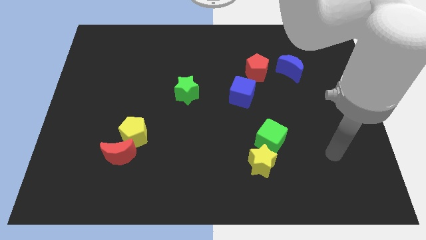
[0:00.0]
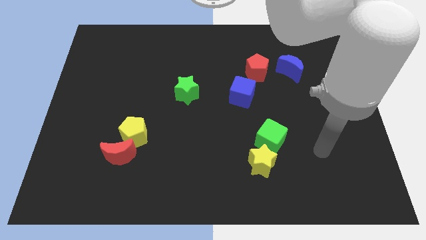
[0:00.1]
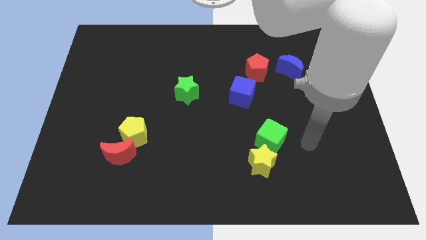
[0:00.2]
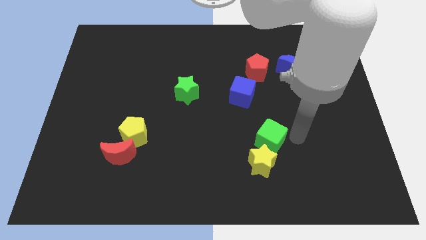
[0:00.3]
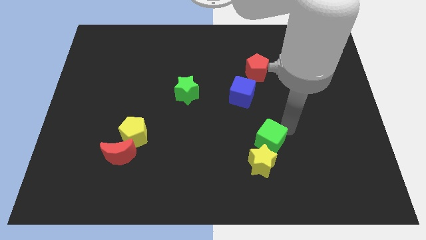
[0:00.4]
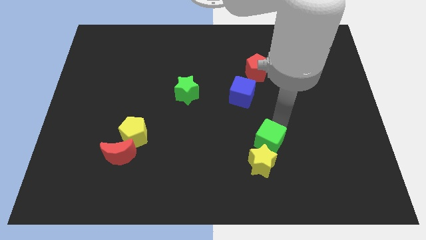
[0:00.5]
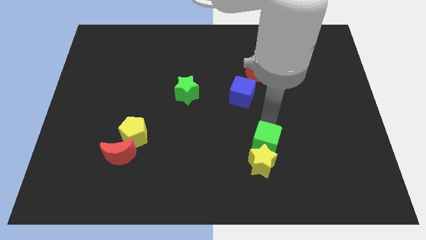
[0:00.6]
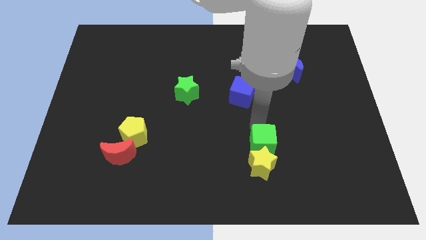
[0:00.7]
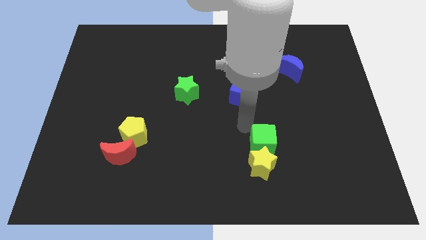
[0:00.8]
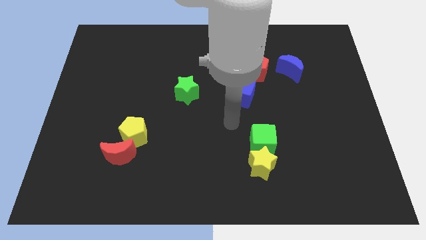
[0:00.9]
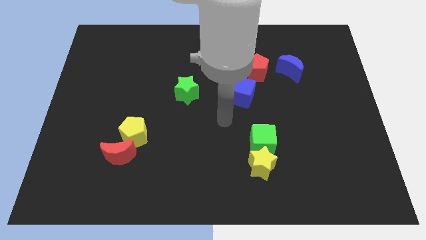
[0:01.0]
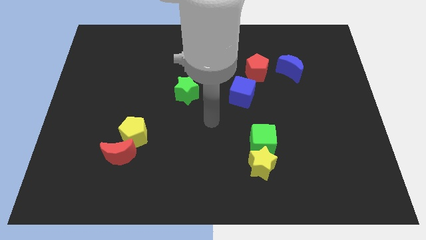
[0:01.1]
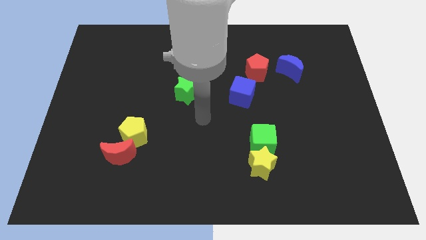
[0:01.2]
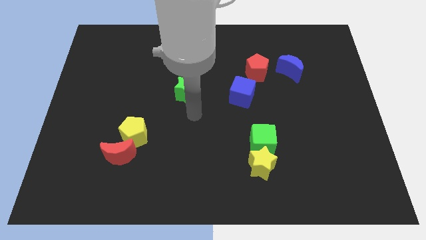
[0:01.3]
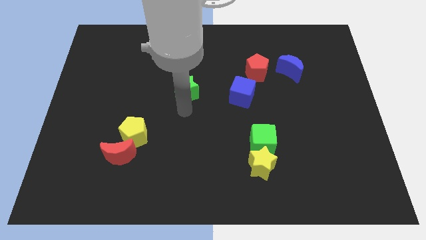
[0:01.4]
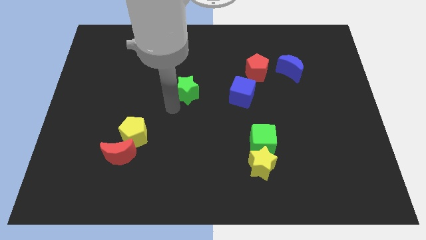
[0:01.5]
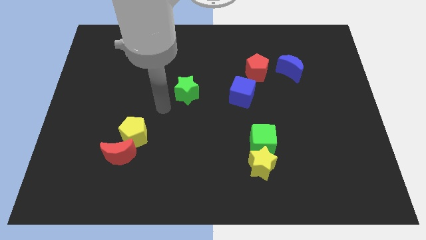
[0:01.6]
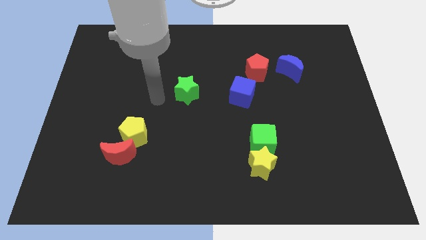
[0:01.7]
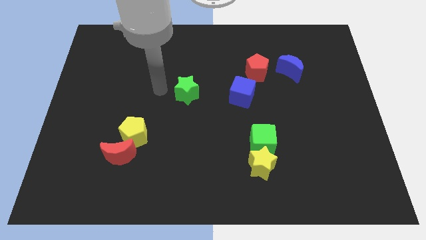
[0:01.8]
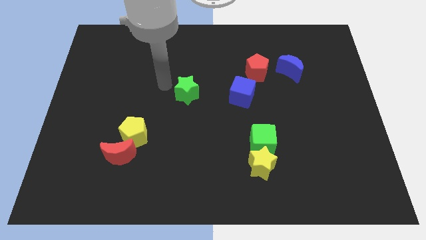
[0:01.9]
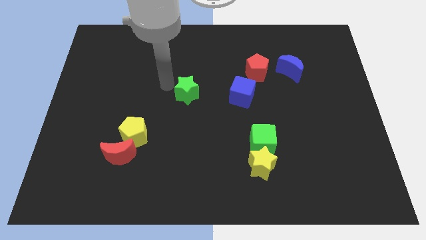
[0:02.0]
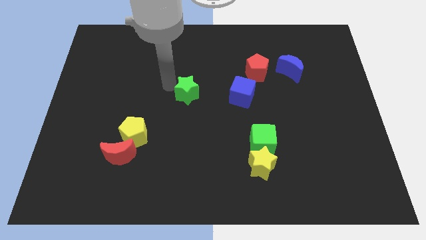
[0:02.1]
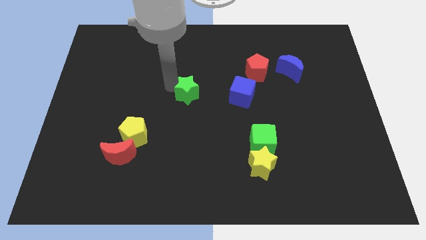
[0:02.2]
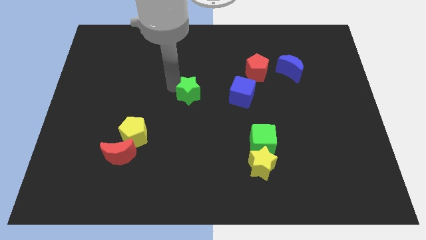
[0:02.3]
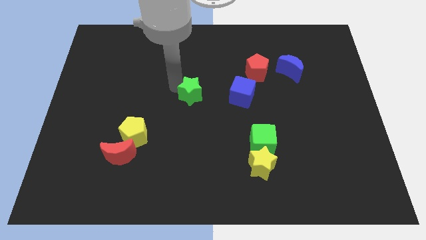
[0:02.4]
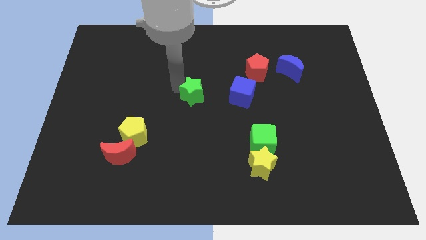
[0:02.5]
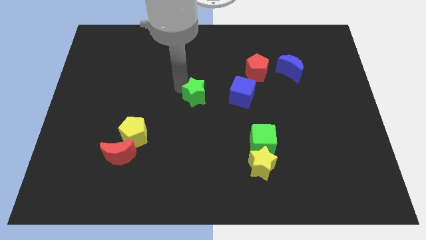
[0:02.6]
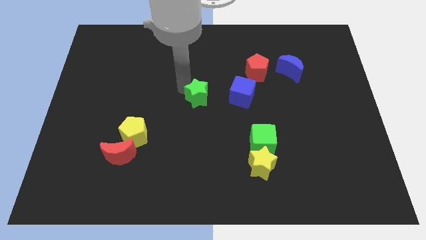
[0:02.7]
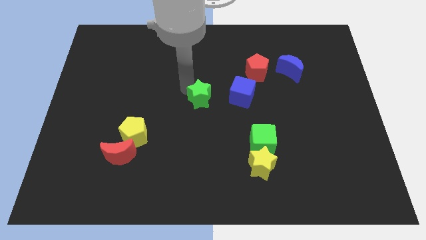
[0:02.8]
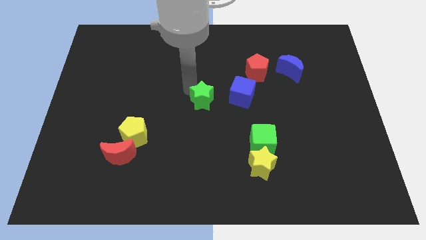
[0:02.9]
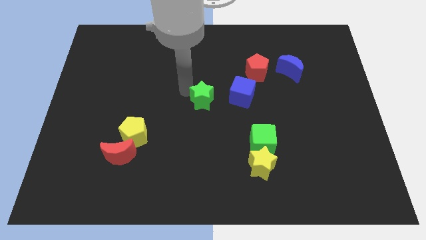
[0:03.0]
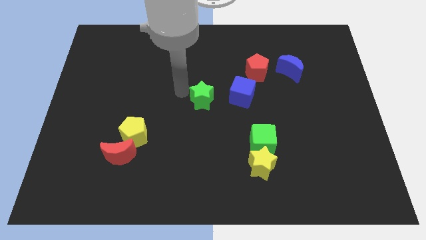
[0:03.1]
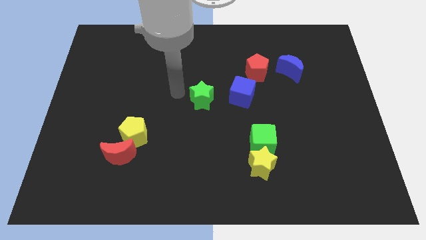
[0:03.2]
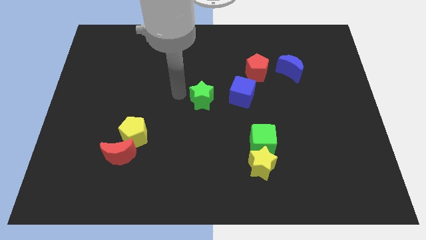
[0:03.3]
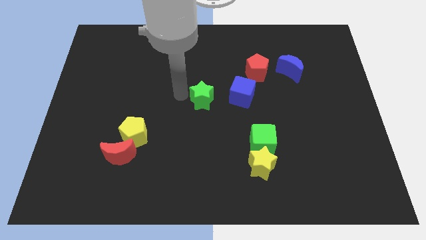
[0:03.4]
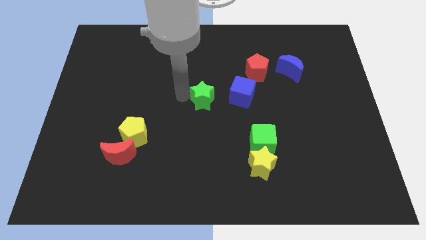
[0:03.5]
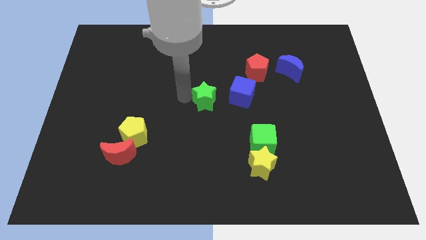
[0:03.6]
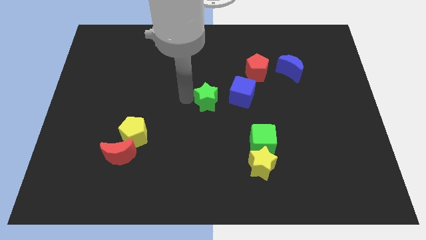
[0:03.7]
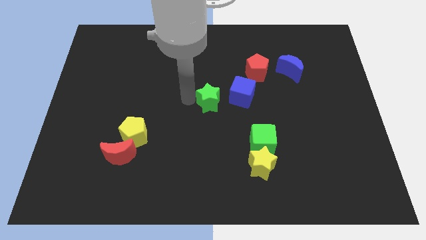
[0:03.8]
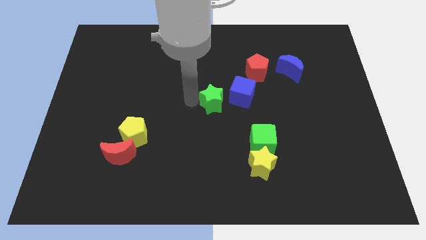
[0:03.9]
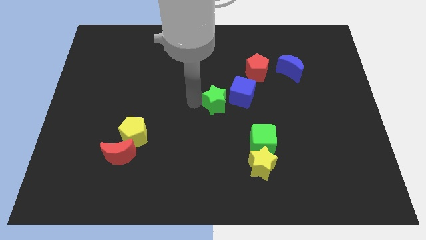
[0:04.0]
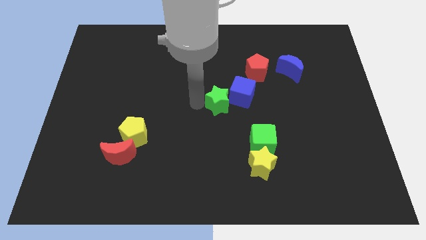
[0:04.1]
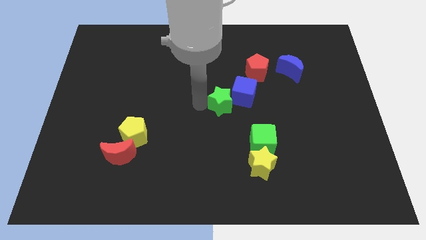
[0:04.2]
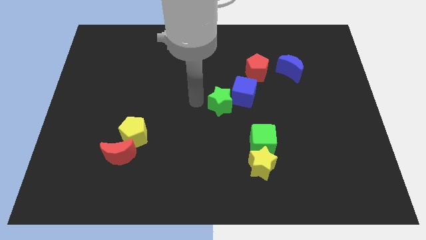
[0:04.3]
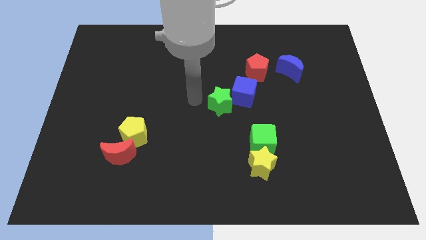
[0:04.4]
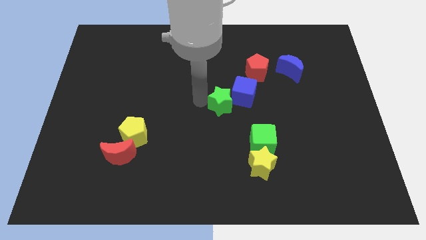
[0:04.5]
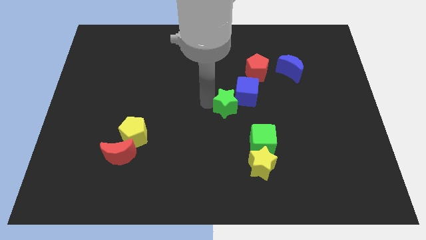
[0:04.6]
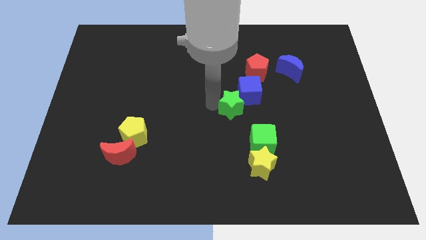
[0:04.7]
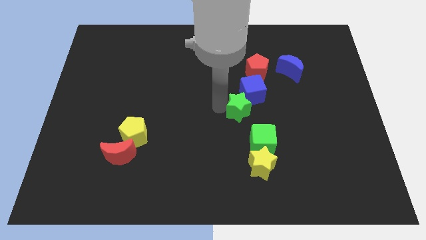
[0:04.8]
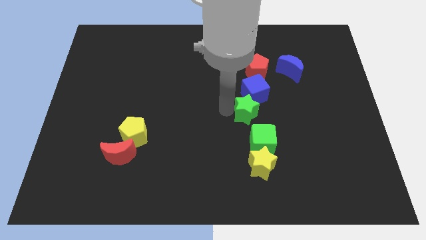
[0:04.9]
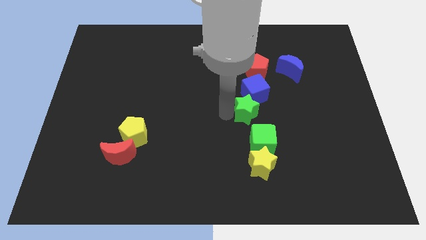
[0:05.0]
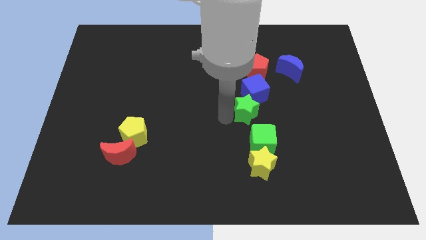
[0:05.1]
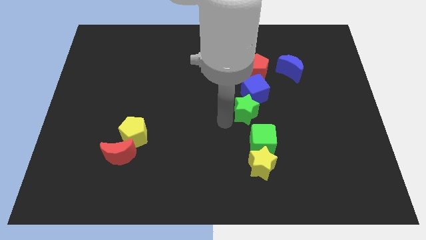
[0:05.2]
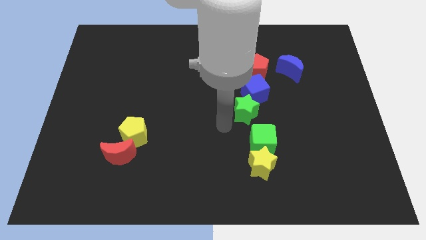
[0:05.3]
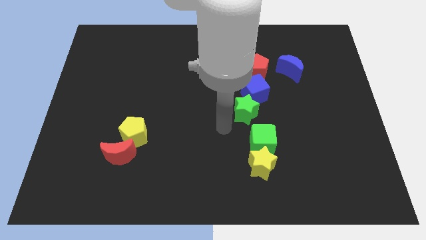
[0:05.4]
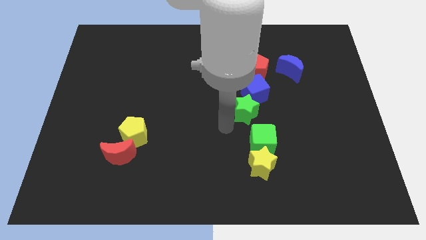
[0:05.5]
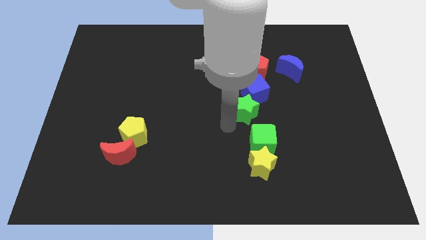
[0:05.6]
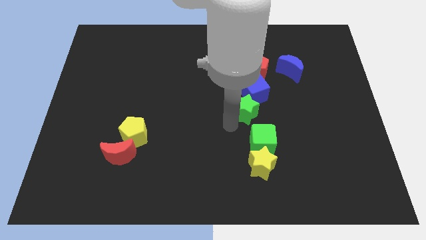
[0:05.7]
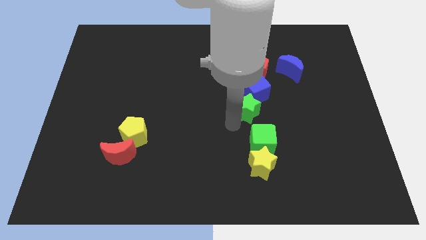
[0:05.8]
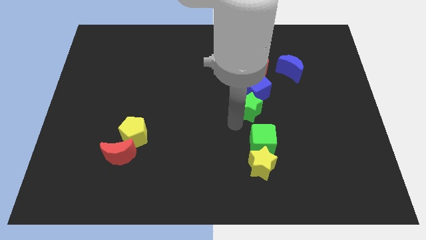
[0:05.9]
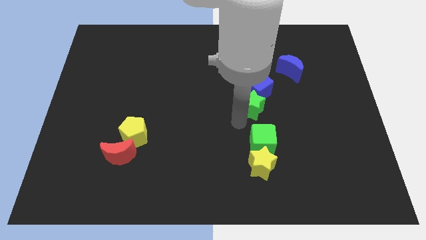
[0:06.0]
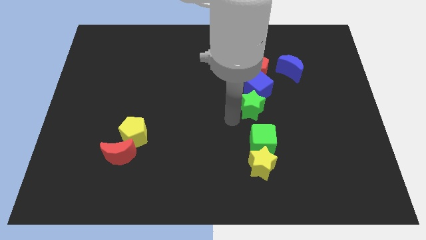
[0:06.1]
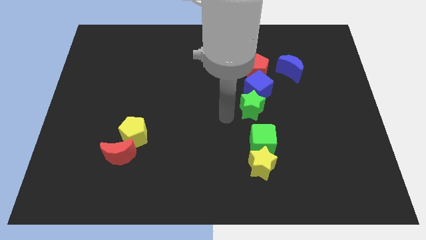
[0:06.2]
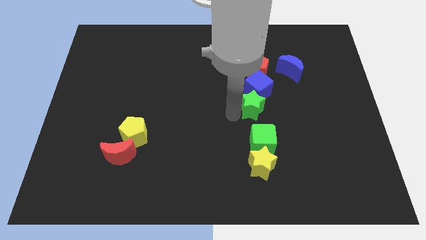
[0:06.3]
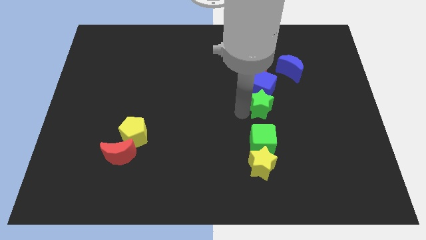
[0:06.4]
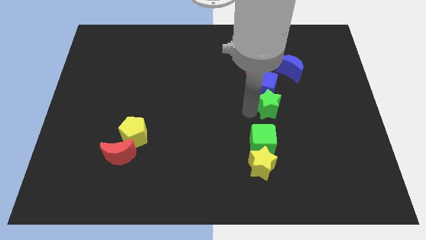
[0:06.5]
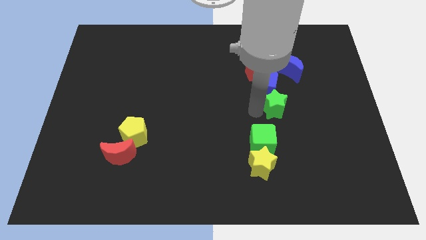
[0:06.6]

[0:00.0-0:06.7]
slide the green star to the right

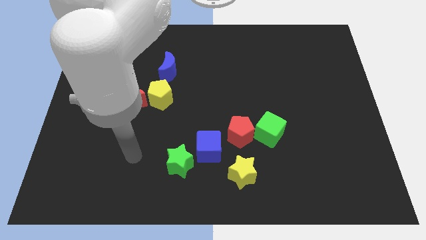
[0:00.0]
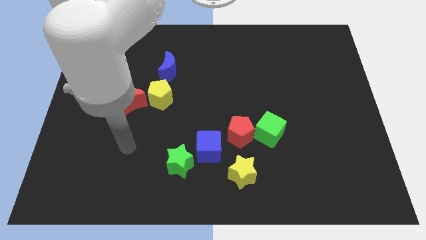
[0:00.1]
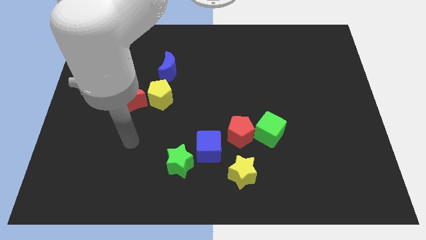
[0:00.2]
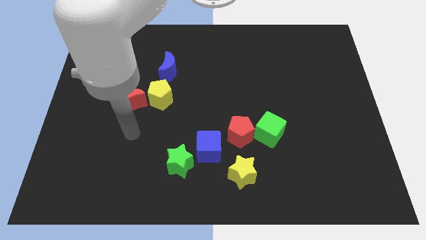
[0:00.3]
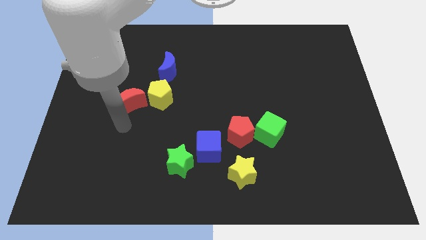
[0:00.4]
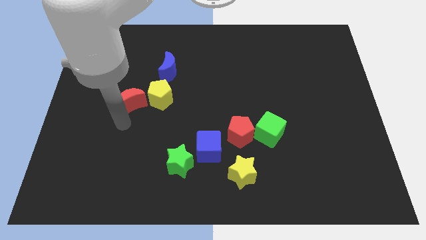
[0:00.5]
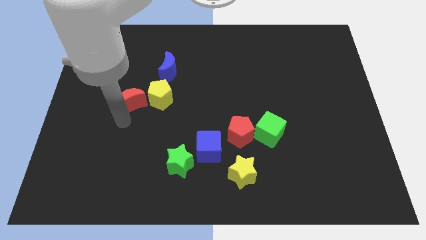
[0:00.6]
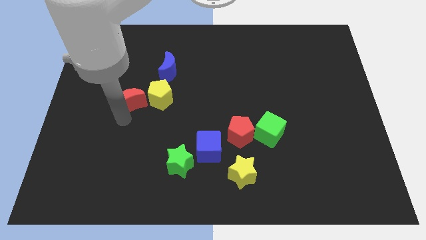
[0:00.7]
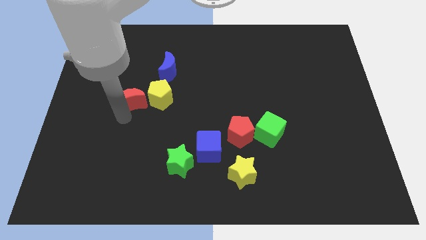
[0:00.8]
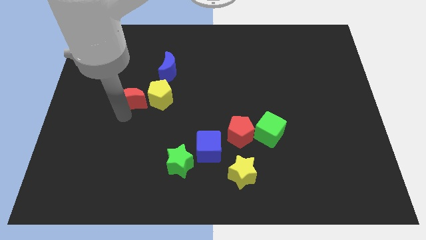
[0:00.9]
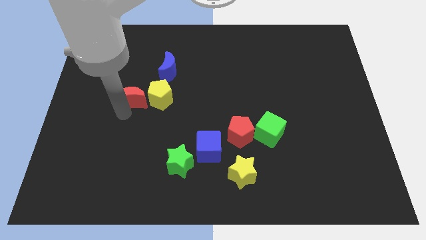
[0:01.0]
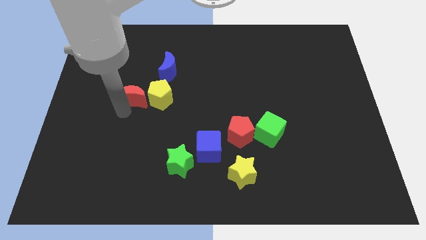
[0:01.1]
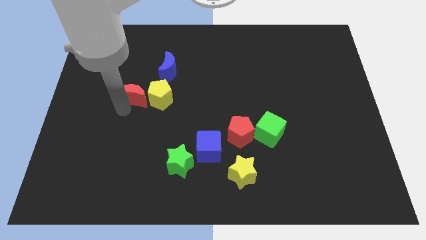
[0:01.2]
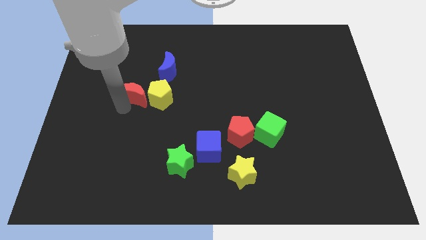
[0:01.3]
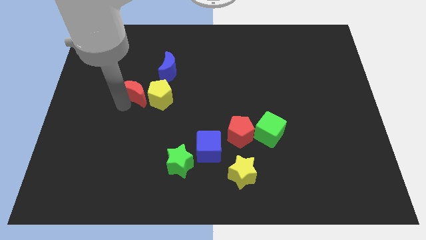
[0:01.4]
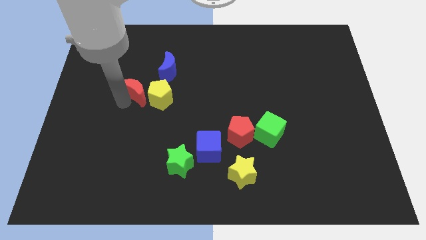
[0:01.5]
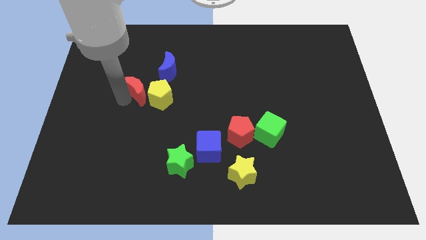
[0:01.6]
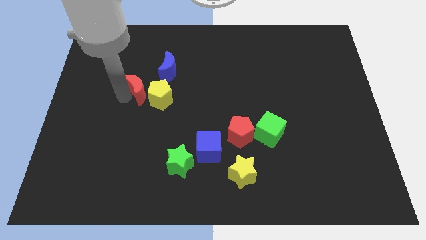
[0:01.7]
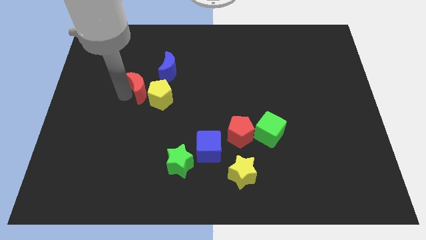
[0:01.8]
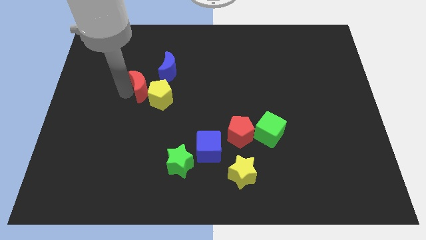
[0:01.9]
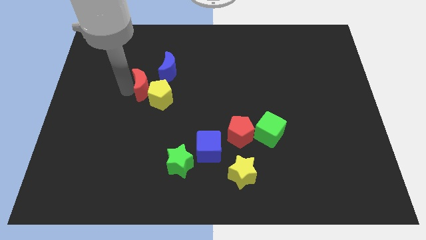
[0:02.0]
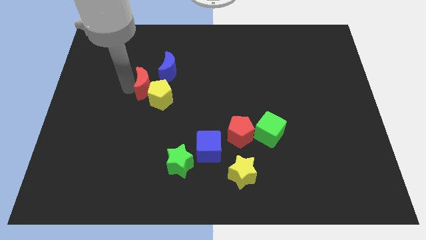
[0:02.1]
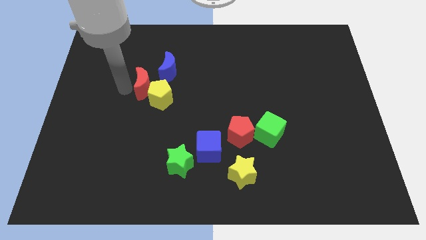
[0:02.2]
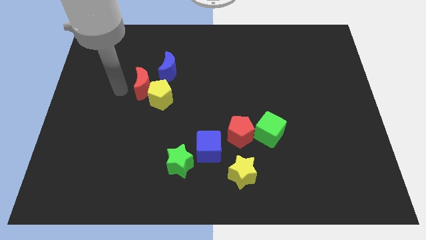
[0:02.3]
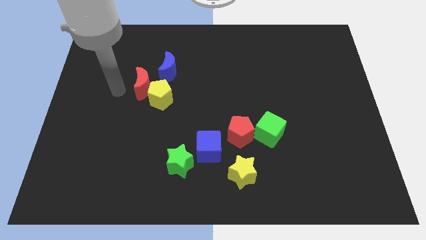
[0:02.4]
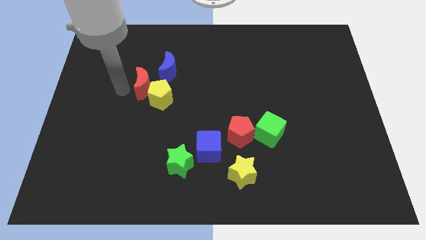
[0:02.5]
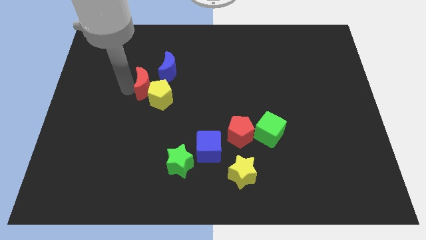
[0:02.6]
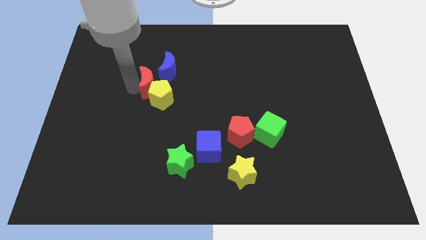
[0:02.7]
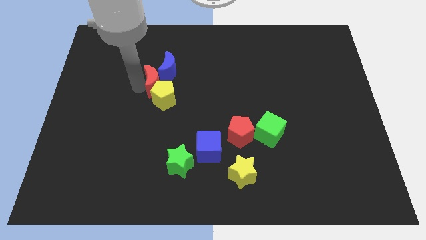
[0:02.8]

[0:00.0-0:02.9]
push the red moon diagonally up and right a little
